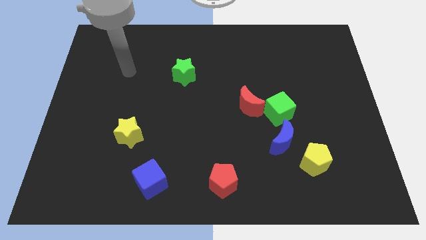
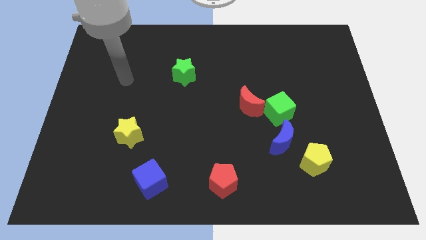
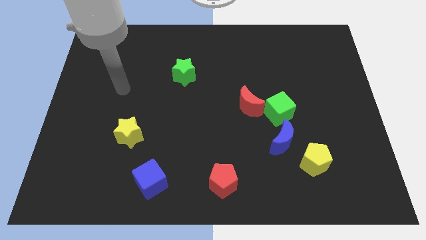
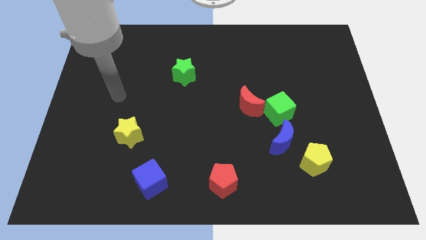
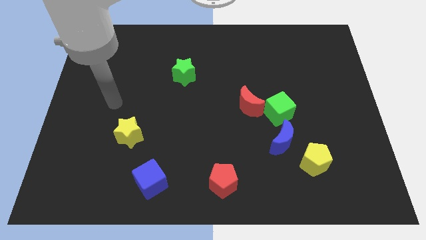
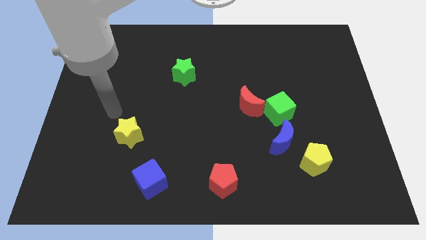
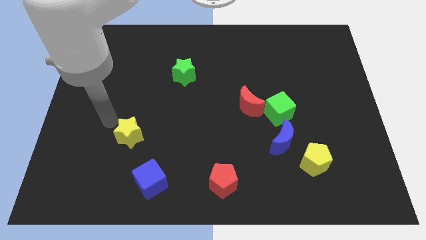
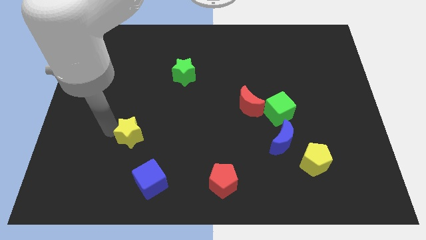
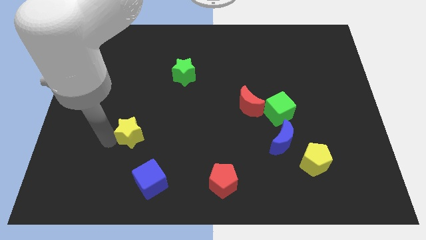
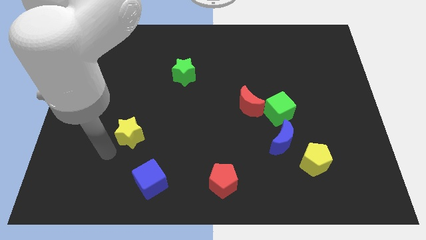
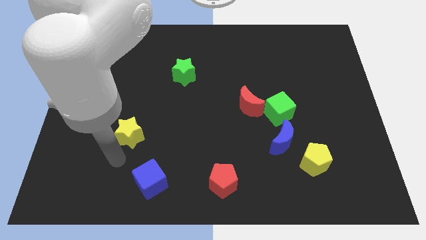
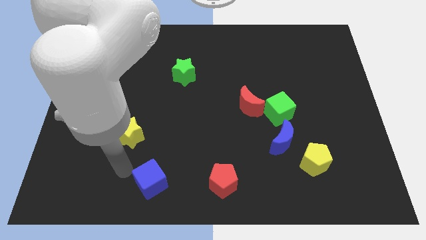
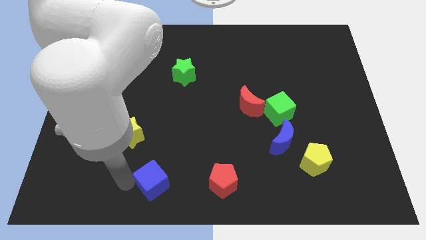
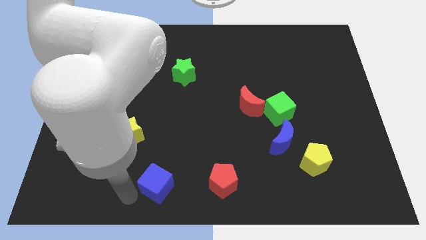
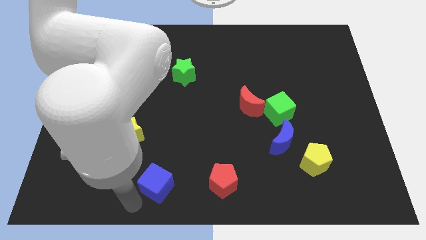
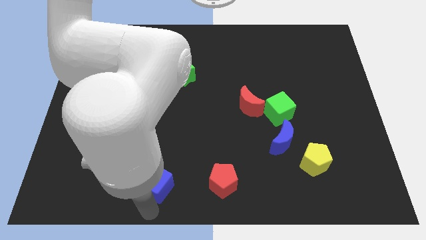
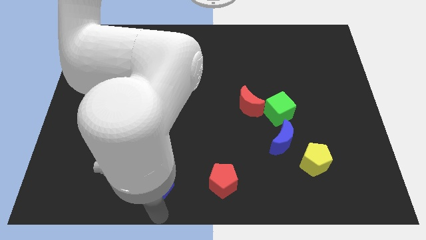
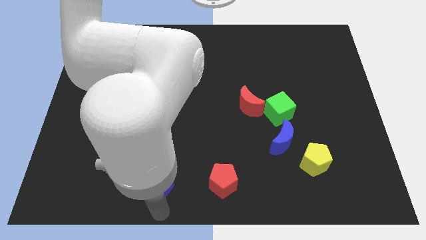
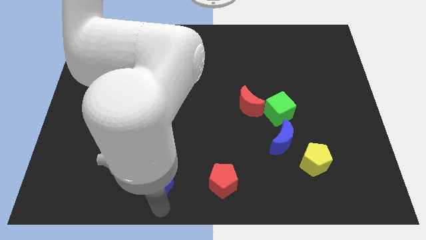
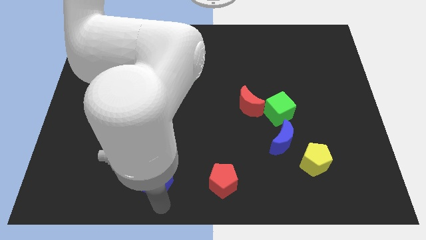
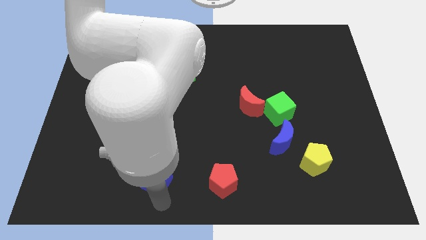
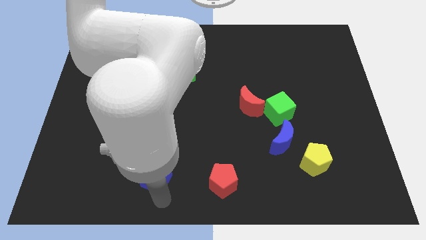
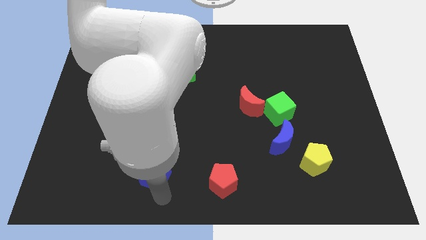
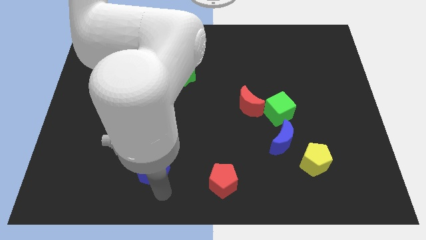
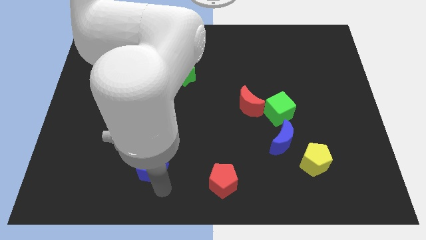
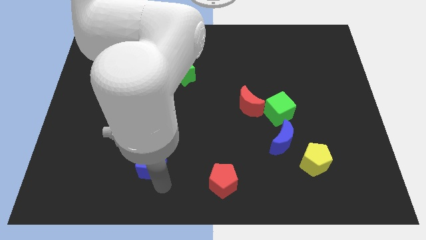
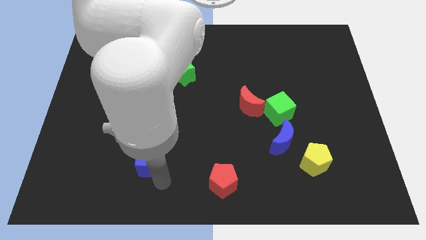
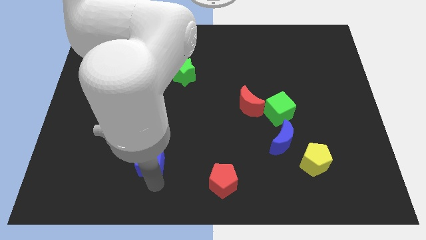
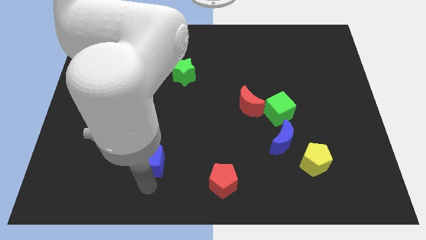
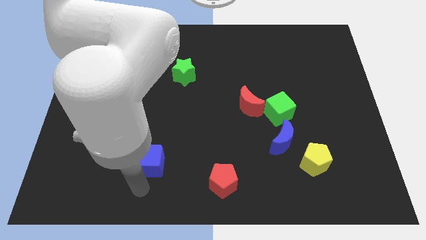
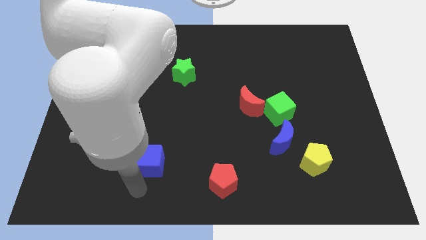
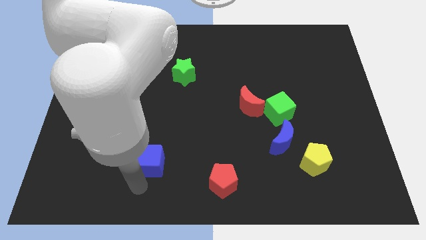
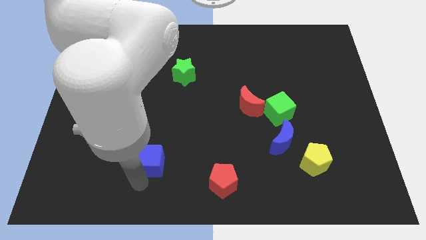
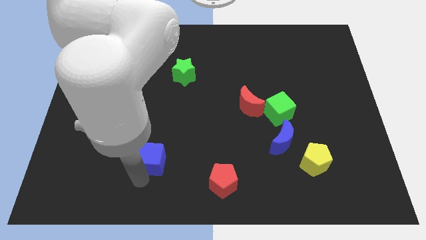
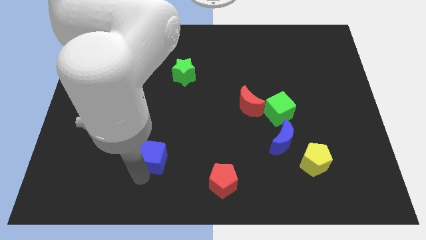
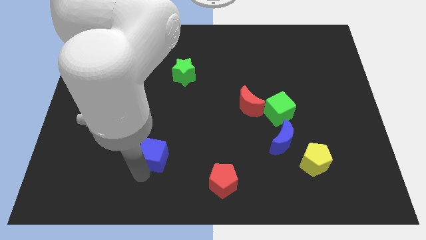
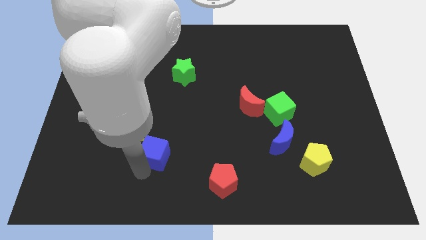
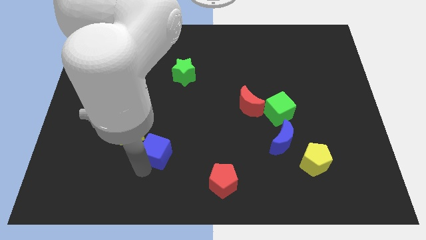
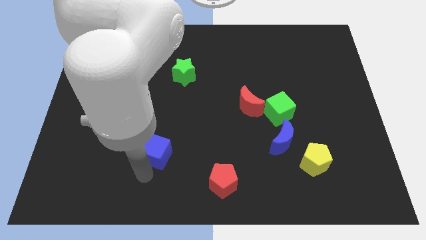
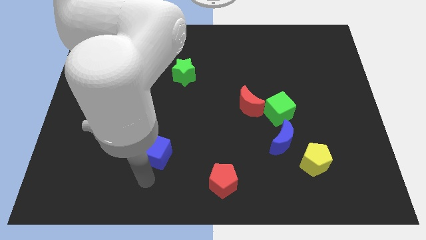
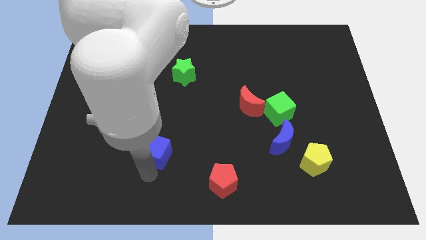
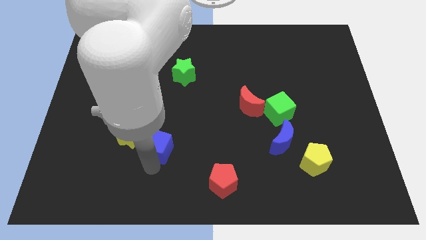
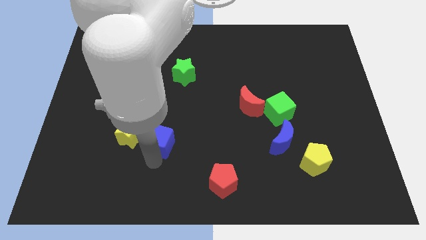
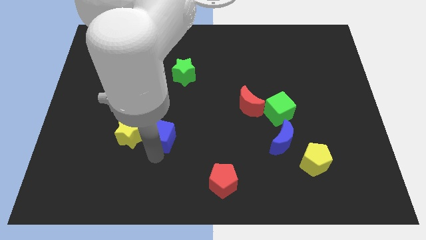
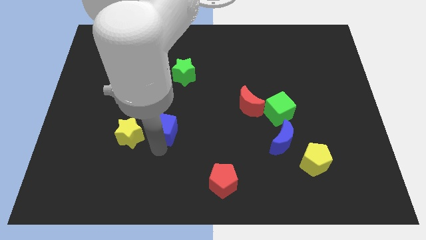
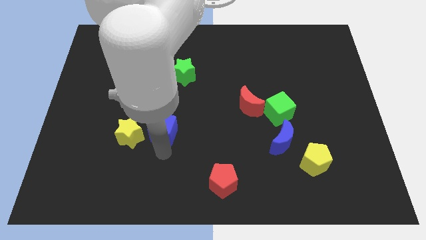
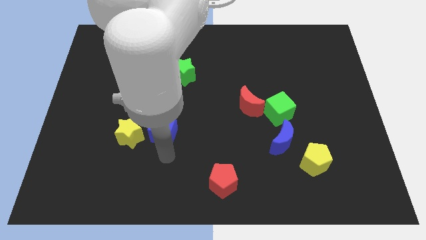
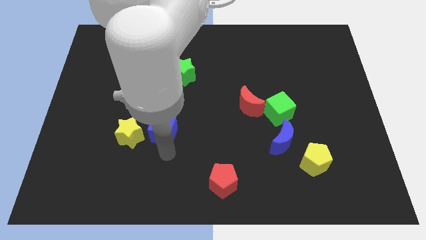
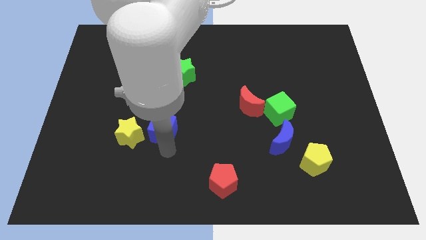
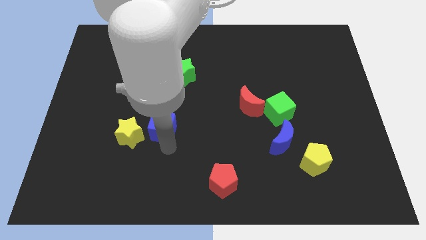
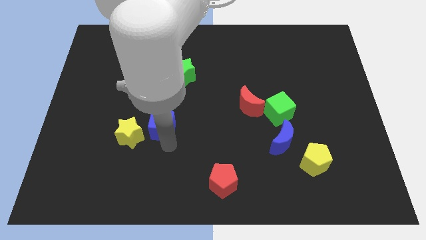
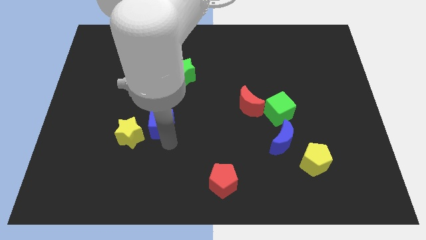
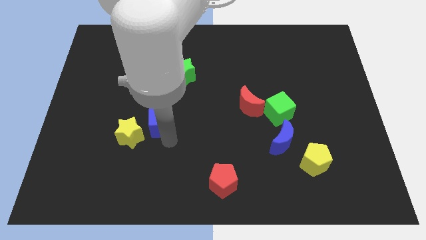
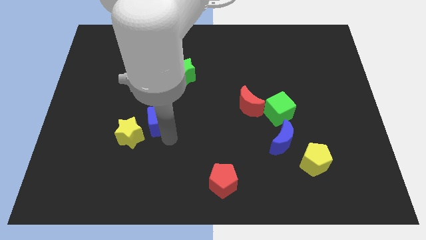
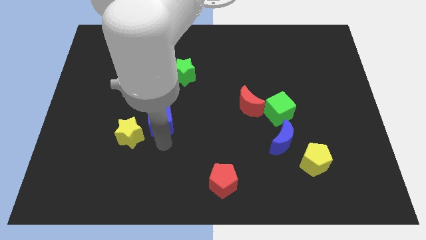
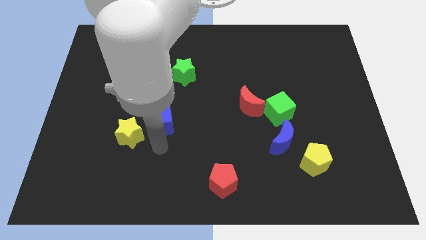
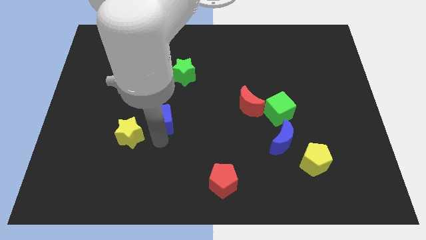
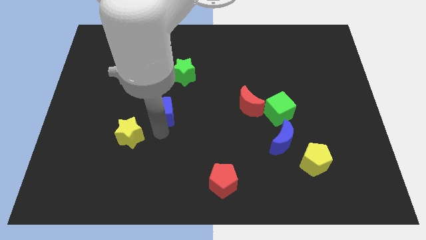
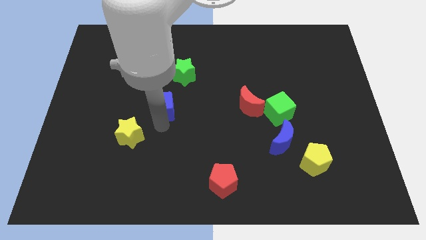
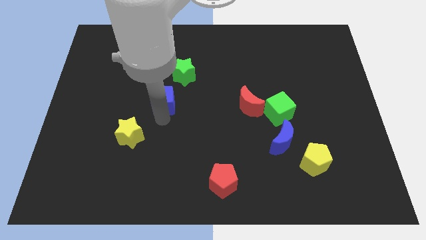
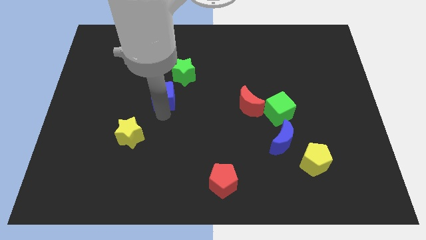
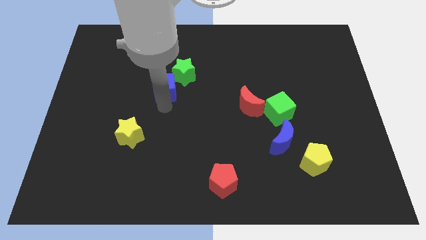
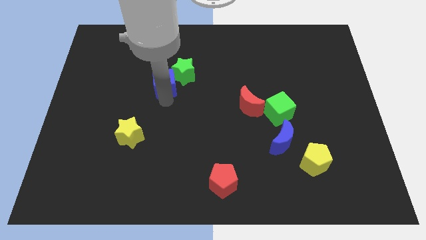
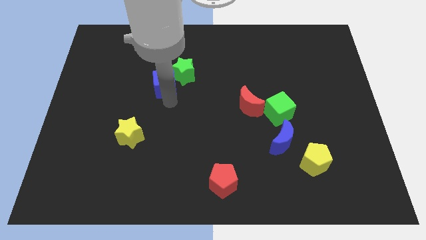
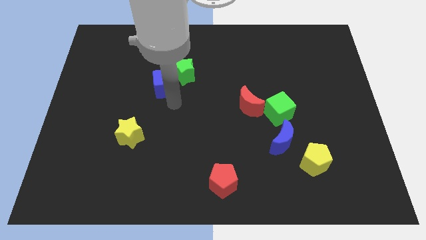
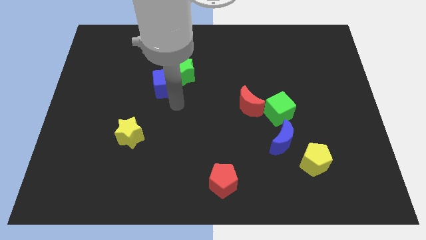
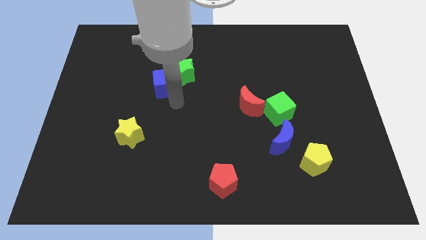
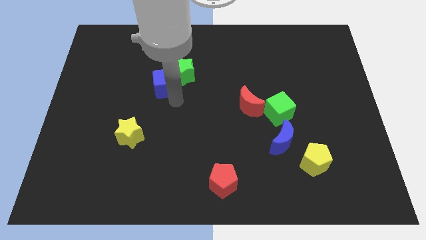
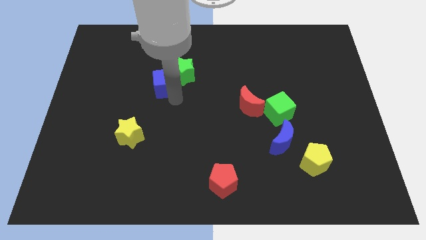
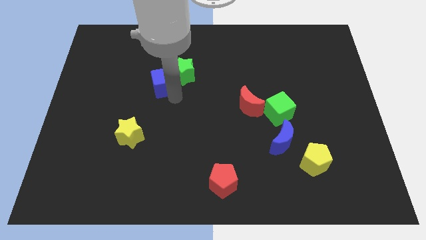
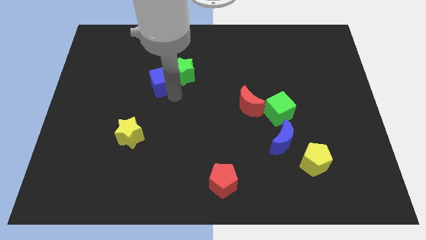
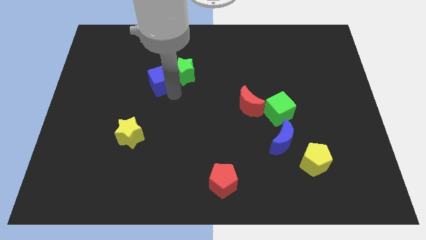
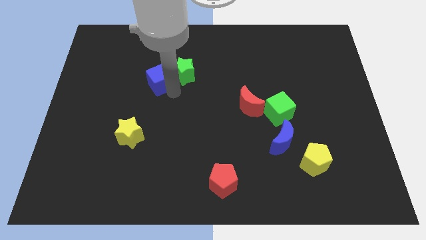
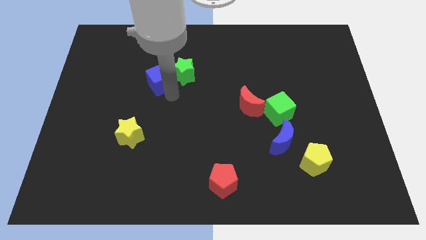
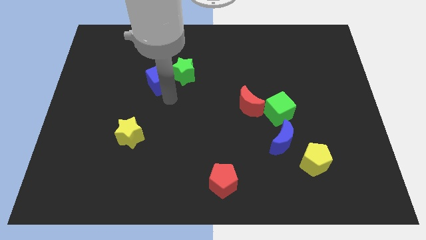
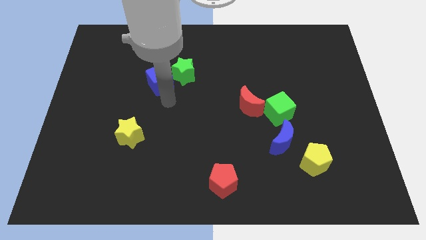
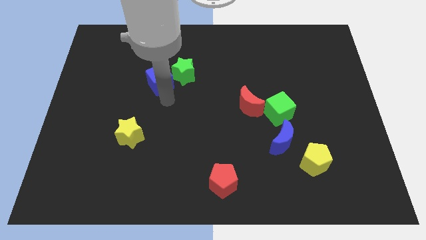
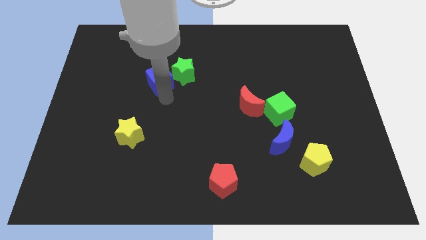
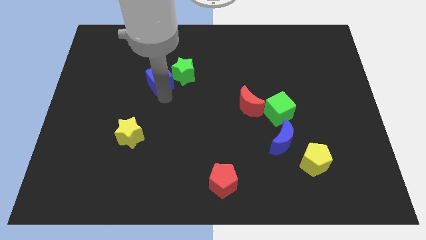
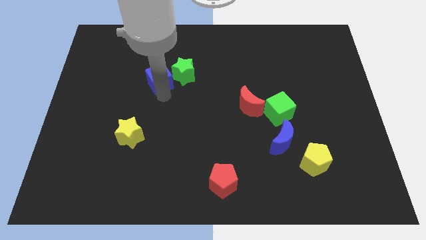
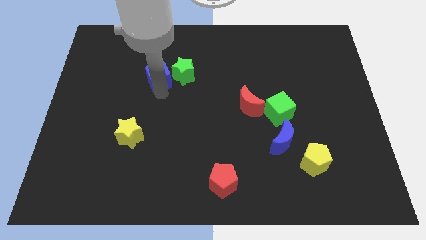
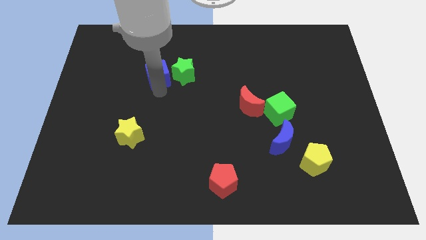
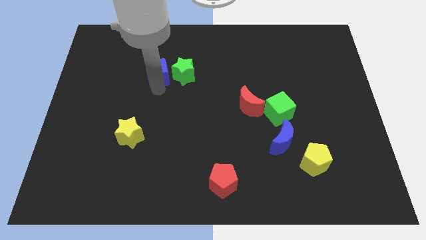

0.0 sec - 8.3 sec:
push the blue cube to the top left side of the green star
